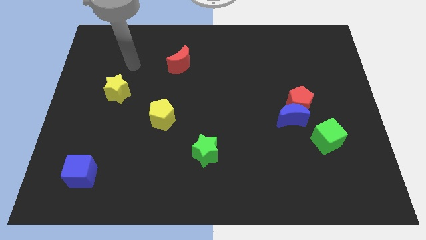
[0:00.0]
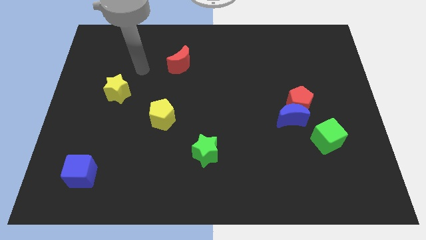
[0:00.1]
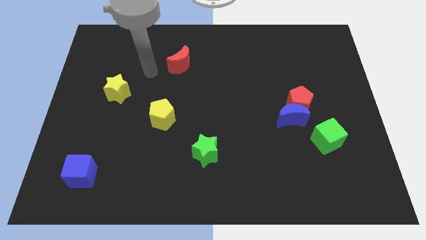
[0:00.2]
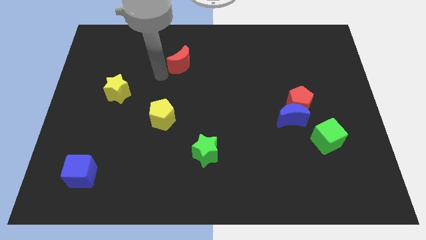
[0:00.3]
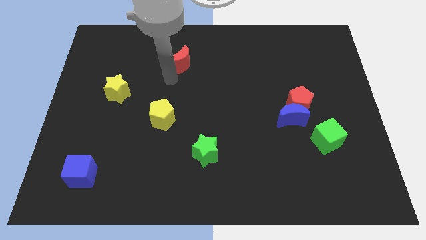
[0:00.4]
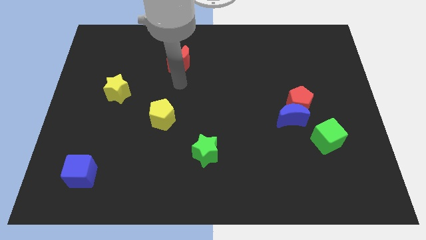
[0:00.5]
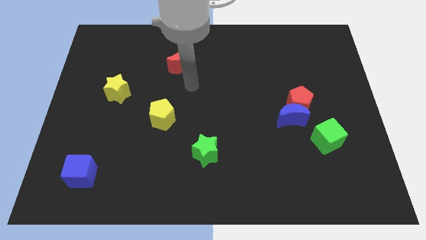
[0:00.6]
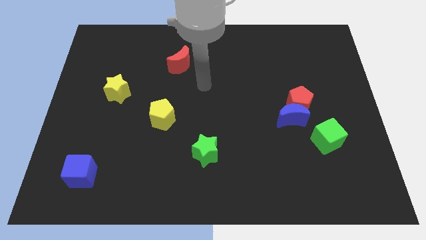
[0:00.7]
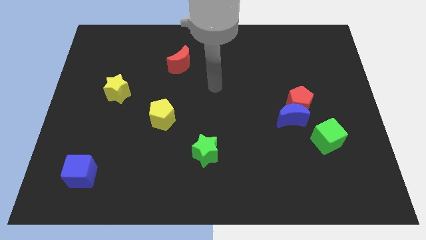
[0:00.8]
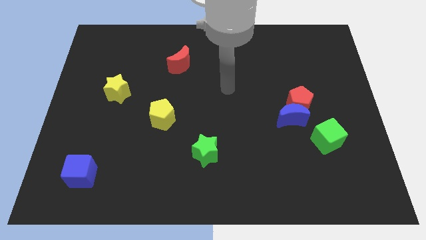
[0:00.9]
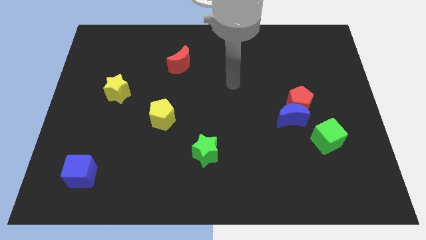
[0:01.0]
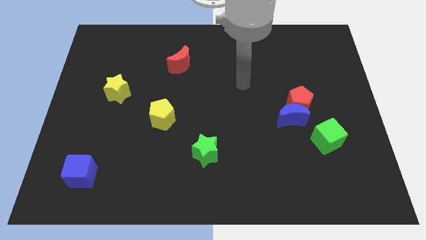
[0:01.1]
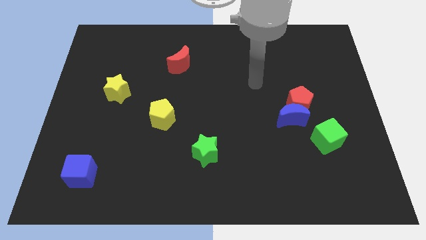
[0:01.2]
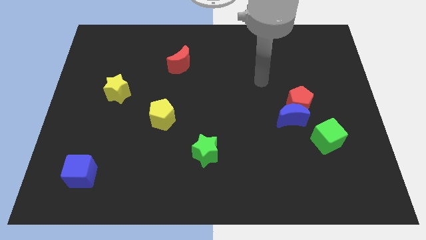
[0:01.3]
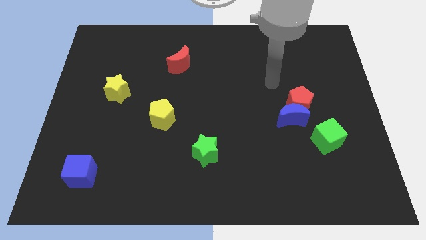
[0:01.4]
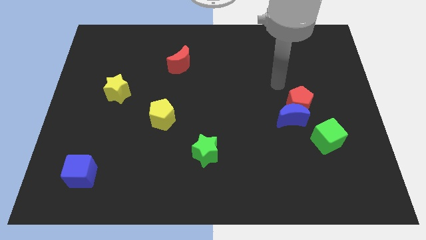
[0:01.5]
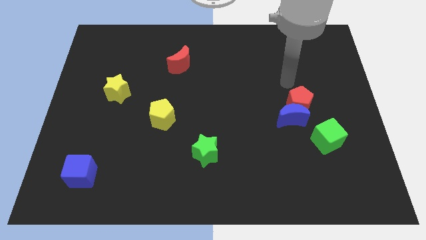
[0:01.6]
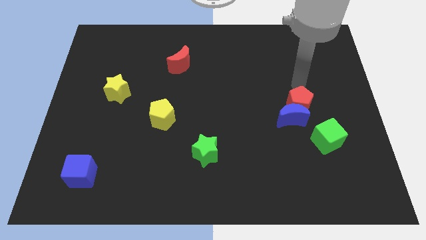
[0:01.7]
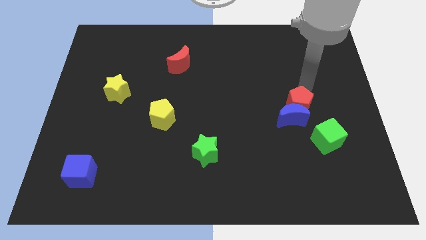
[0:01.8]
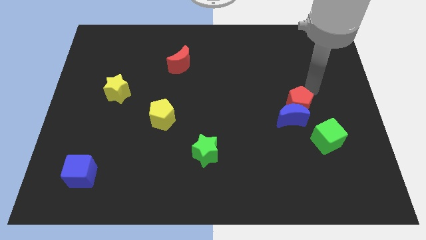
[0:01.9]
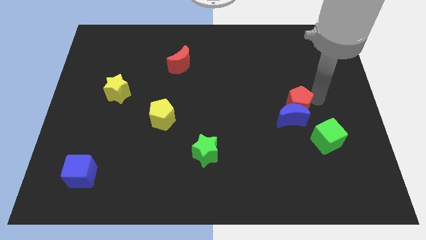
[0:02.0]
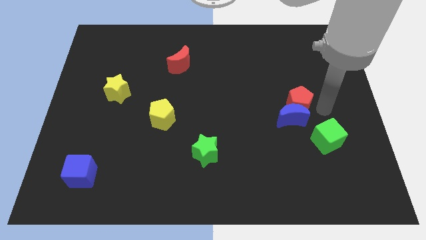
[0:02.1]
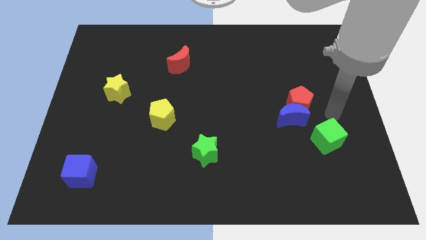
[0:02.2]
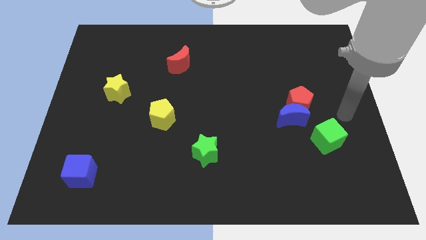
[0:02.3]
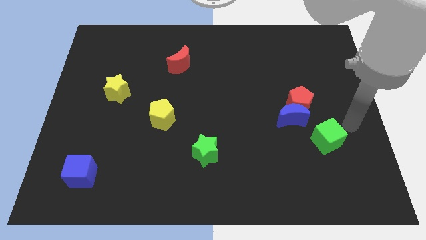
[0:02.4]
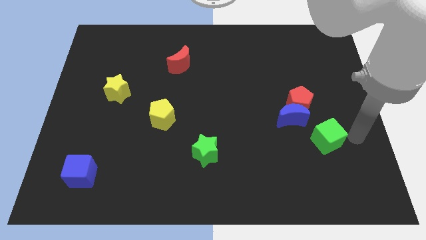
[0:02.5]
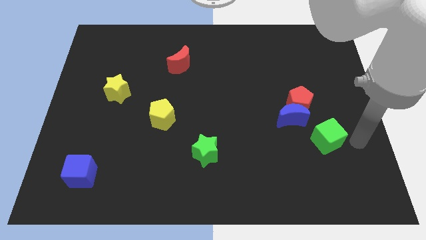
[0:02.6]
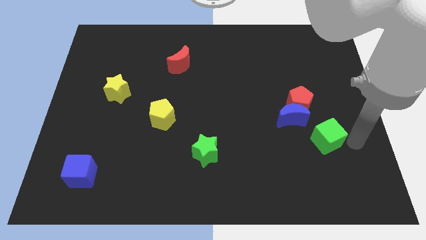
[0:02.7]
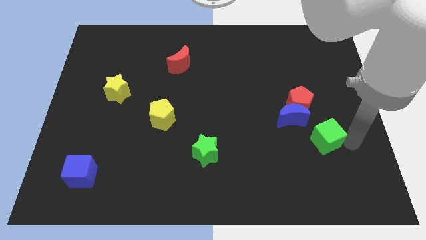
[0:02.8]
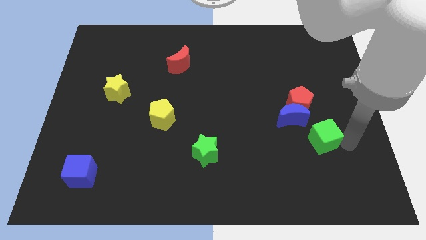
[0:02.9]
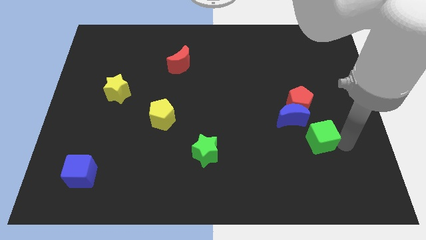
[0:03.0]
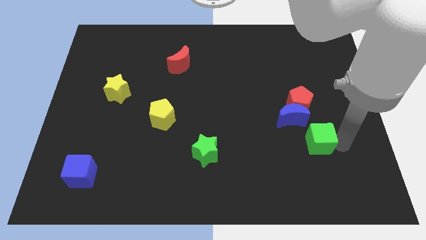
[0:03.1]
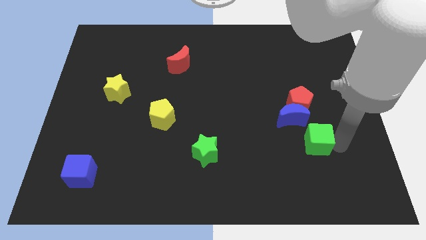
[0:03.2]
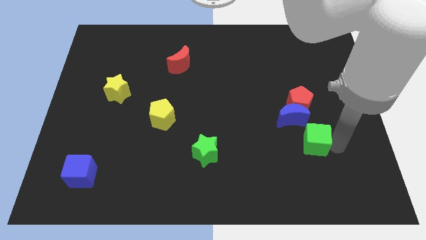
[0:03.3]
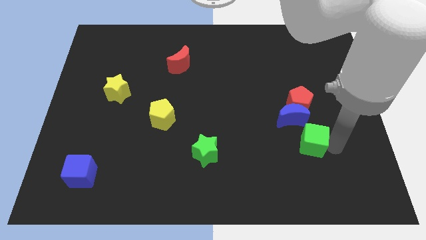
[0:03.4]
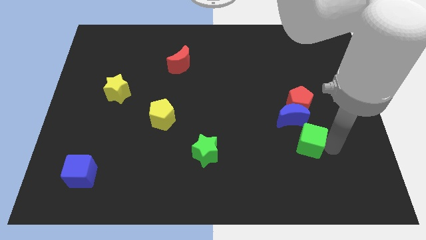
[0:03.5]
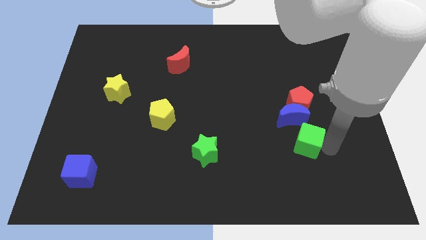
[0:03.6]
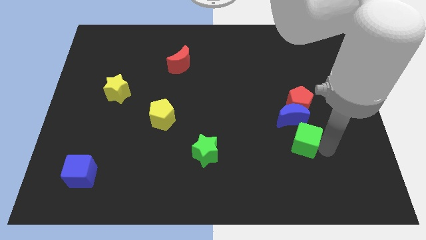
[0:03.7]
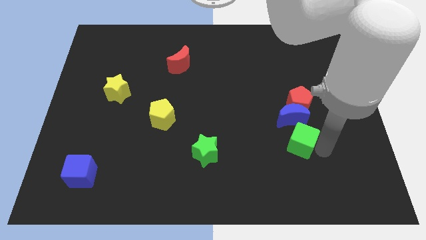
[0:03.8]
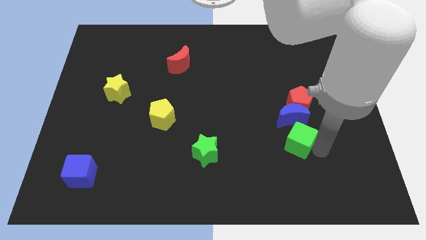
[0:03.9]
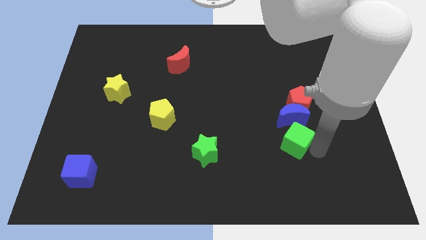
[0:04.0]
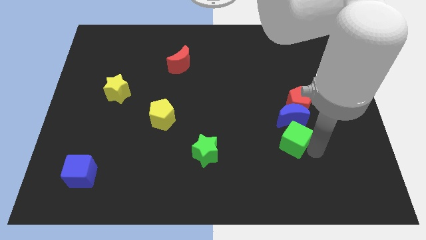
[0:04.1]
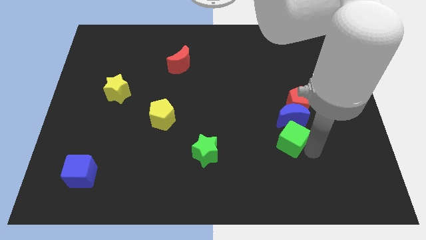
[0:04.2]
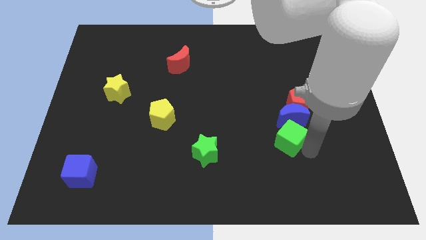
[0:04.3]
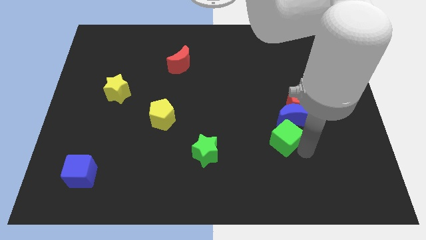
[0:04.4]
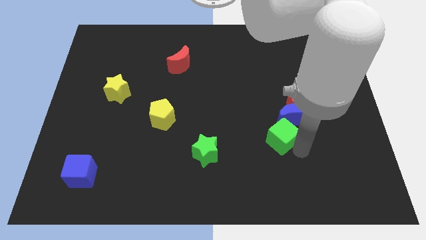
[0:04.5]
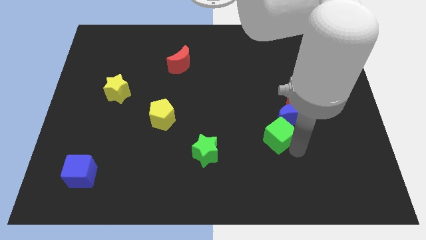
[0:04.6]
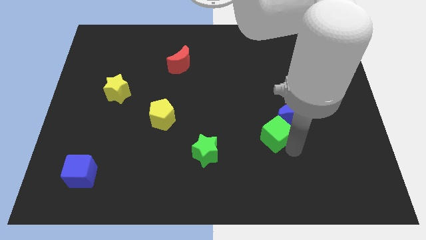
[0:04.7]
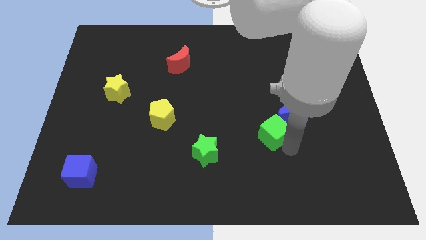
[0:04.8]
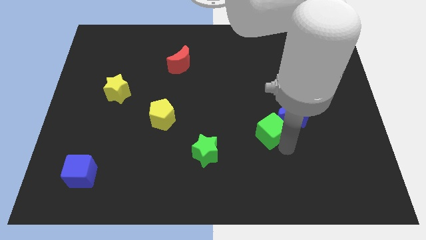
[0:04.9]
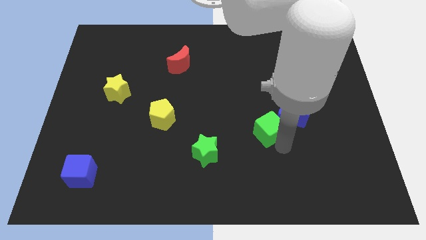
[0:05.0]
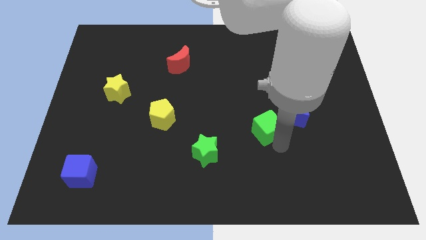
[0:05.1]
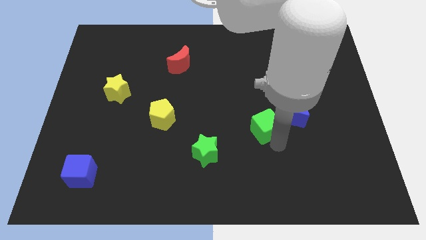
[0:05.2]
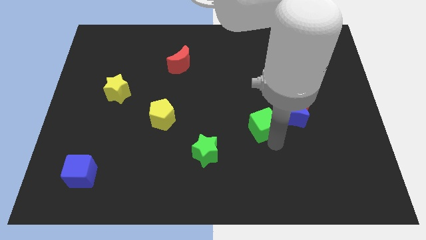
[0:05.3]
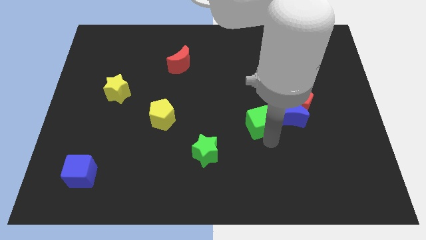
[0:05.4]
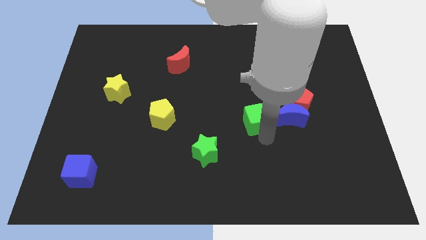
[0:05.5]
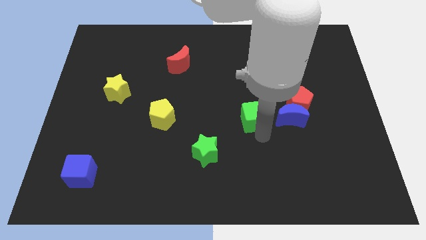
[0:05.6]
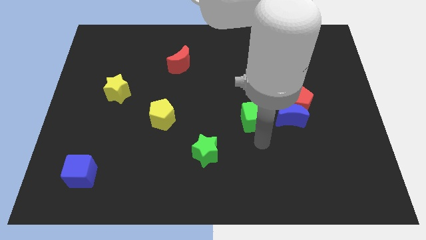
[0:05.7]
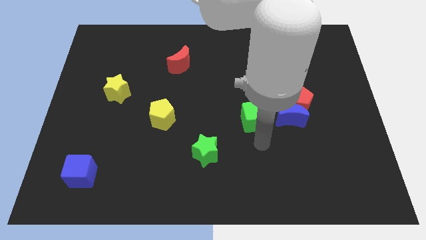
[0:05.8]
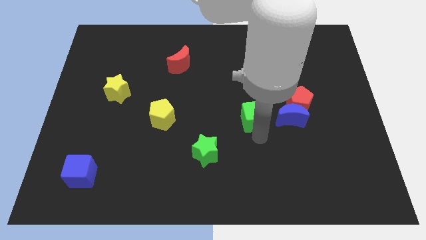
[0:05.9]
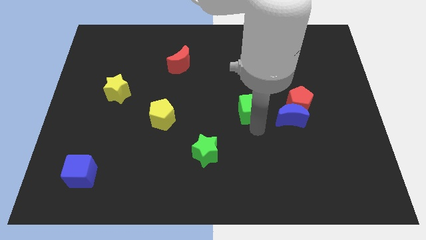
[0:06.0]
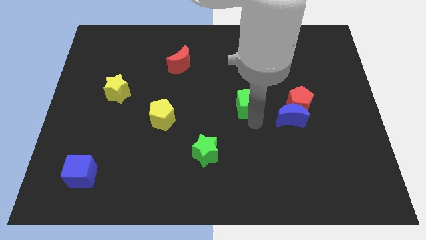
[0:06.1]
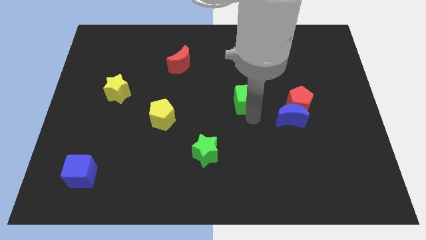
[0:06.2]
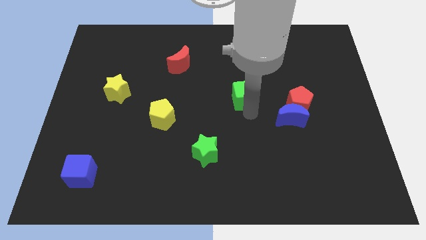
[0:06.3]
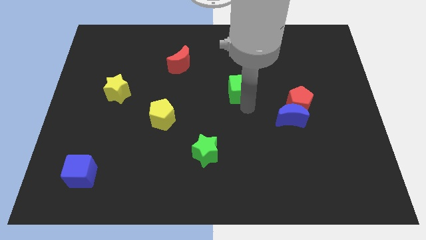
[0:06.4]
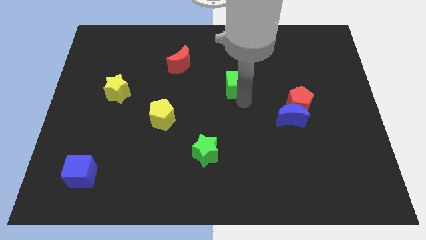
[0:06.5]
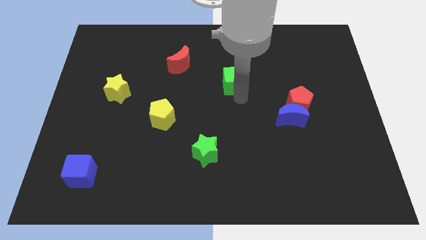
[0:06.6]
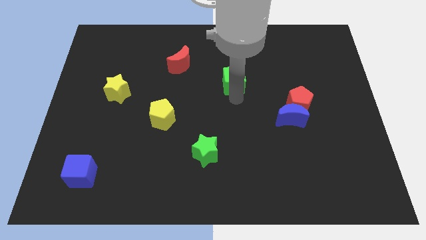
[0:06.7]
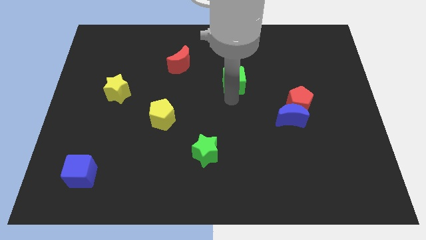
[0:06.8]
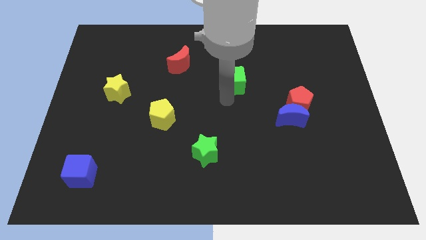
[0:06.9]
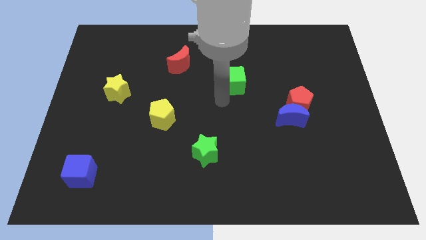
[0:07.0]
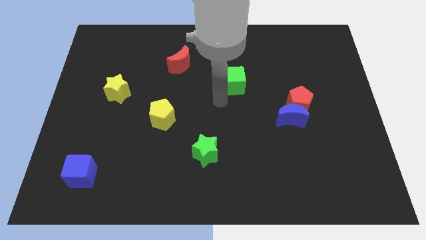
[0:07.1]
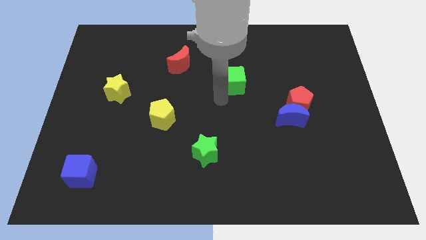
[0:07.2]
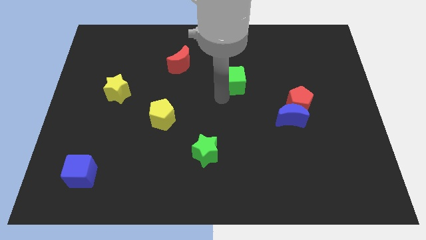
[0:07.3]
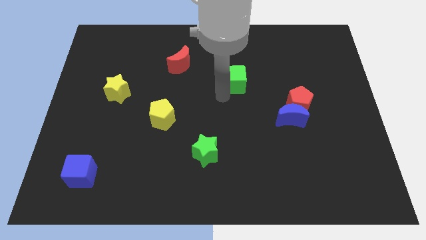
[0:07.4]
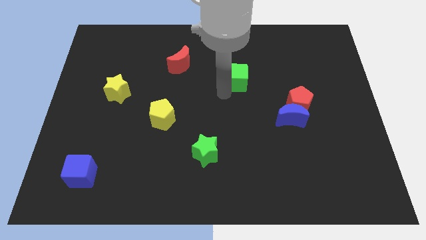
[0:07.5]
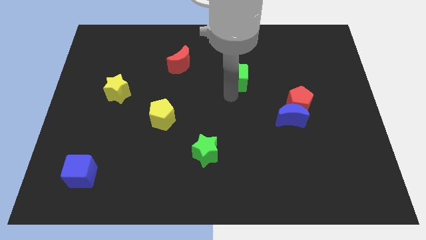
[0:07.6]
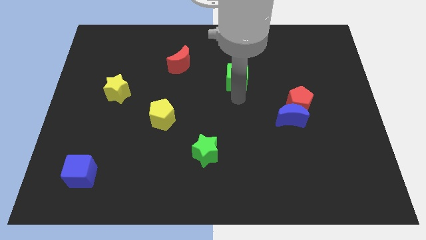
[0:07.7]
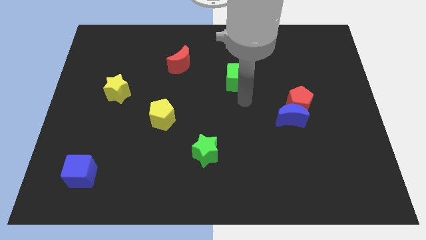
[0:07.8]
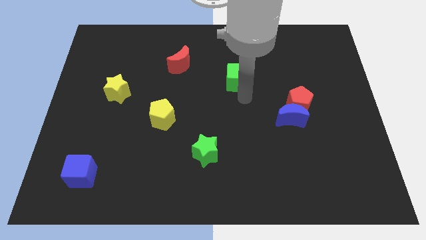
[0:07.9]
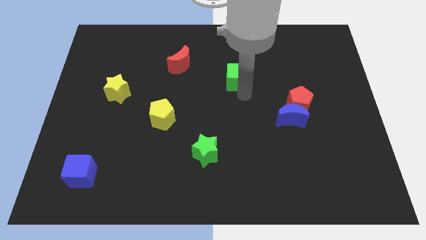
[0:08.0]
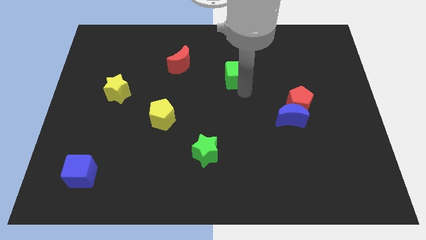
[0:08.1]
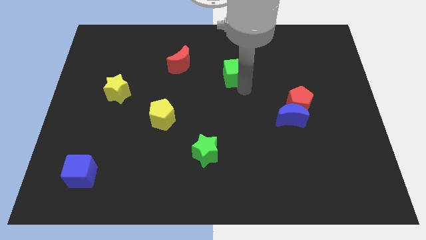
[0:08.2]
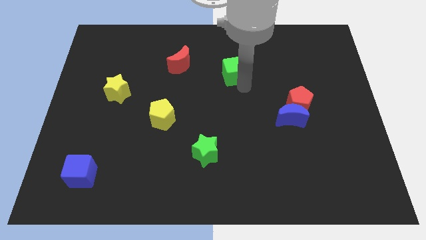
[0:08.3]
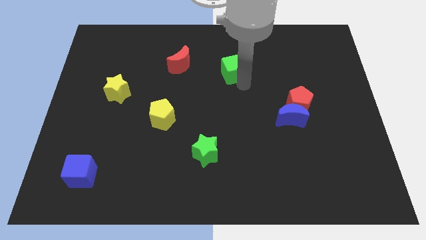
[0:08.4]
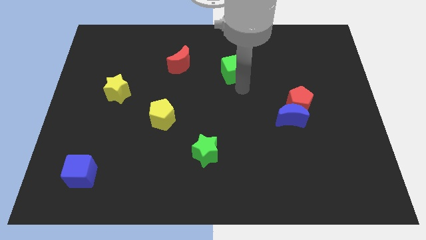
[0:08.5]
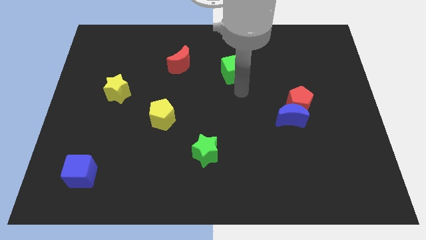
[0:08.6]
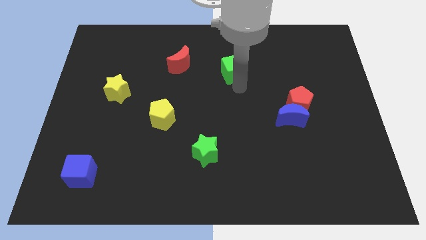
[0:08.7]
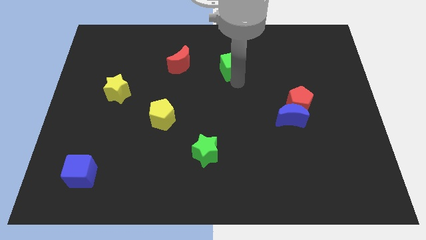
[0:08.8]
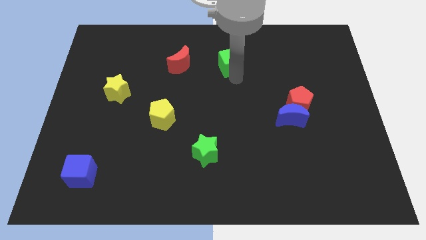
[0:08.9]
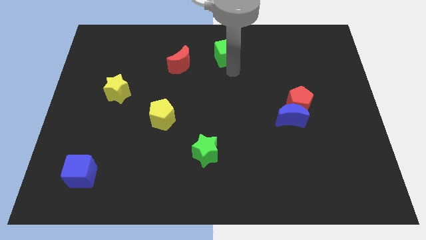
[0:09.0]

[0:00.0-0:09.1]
push the green cube to the towards your base
